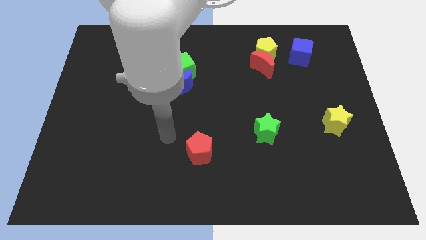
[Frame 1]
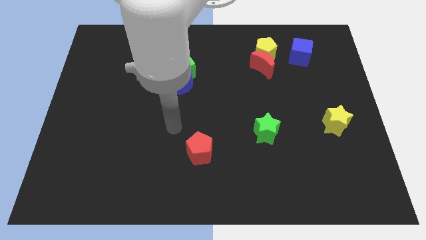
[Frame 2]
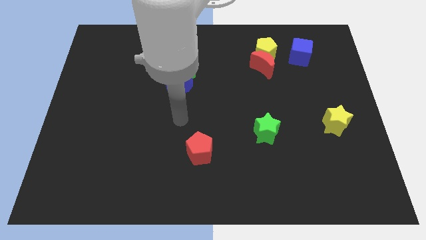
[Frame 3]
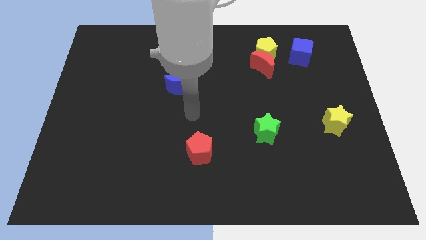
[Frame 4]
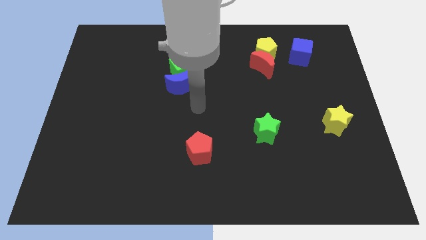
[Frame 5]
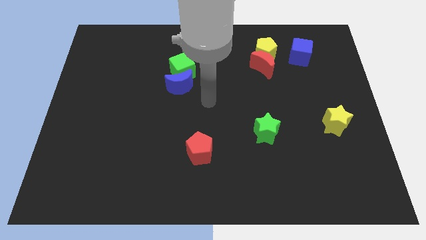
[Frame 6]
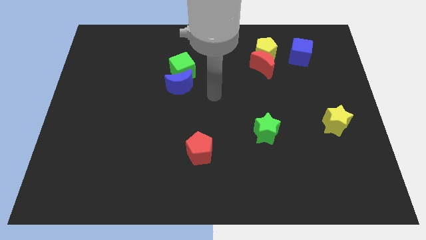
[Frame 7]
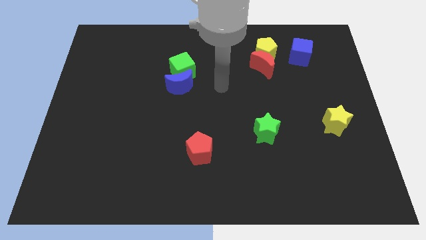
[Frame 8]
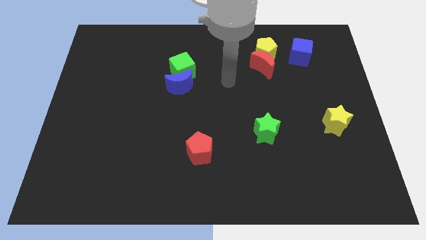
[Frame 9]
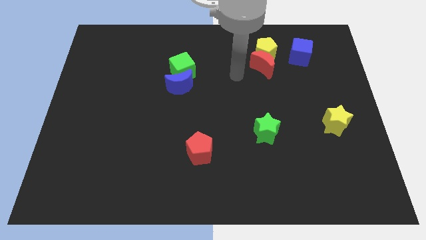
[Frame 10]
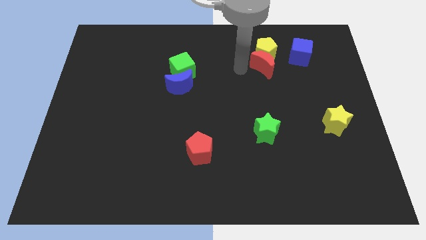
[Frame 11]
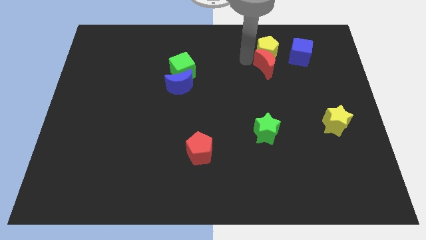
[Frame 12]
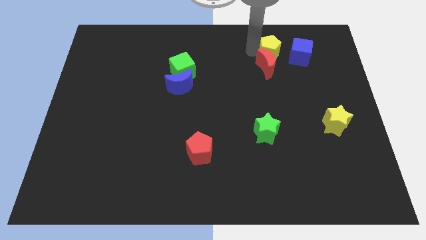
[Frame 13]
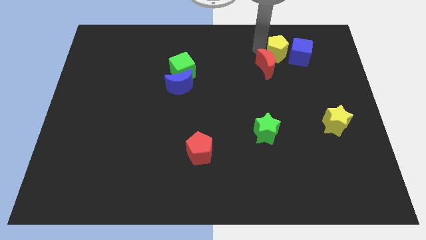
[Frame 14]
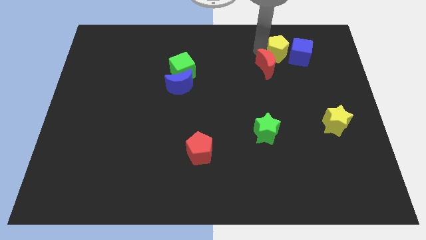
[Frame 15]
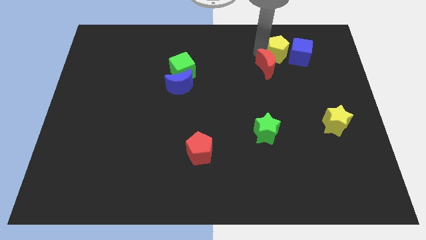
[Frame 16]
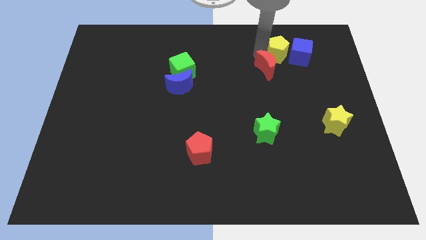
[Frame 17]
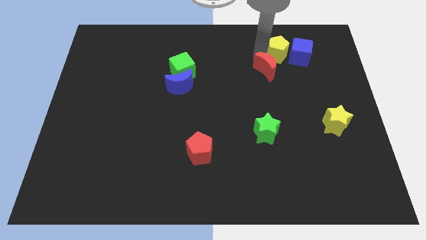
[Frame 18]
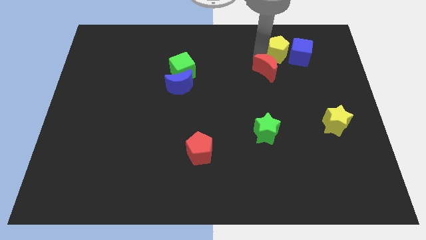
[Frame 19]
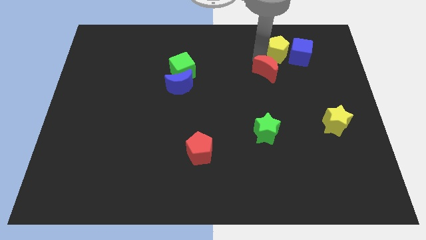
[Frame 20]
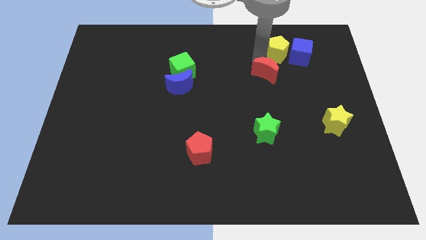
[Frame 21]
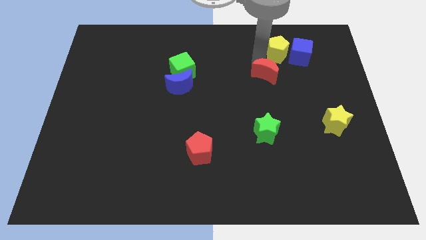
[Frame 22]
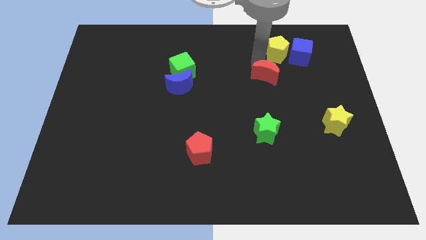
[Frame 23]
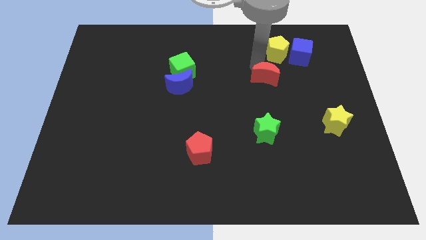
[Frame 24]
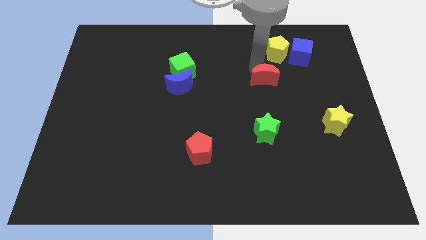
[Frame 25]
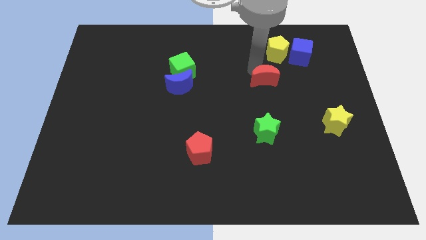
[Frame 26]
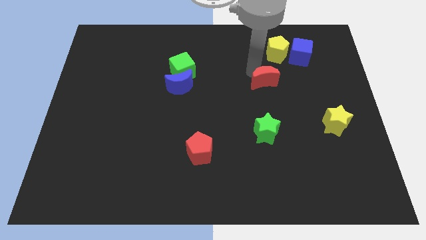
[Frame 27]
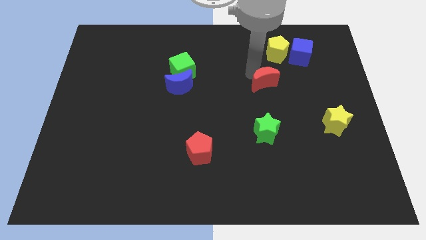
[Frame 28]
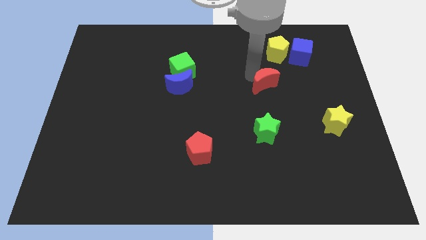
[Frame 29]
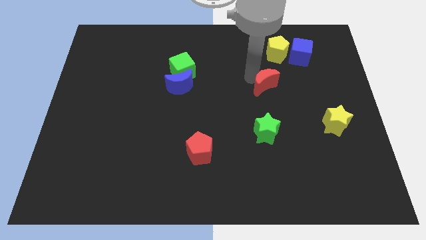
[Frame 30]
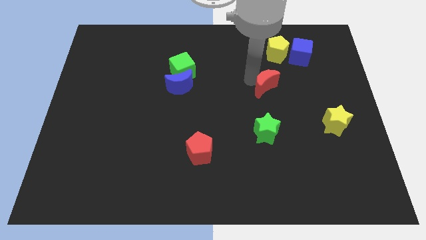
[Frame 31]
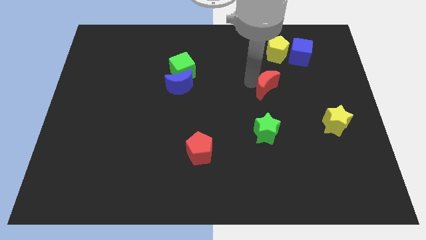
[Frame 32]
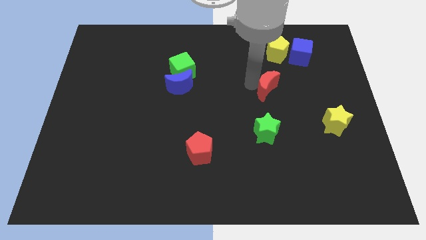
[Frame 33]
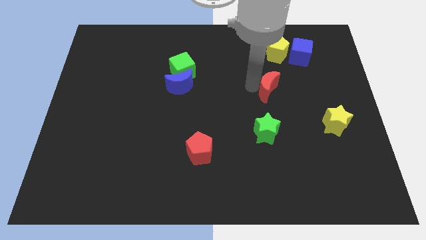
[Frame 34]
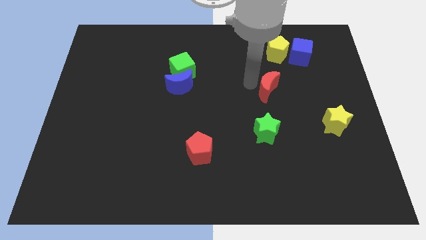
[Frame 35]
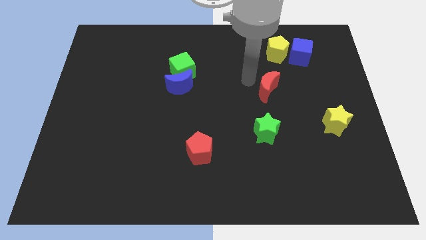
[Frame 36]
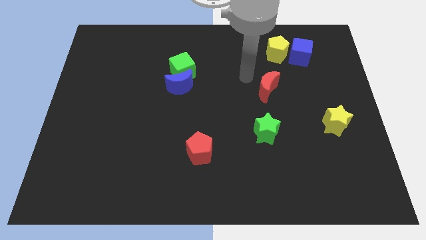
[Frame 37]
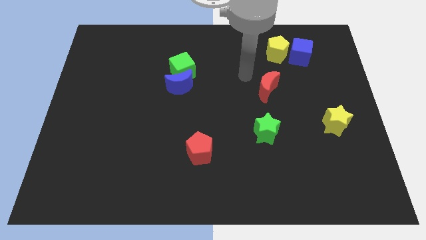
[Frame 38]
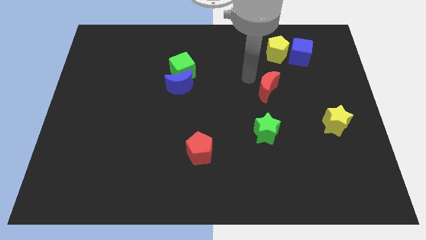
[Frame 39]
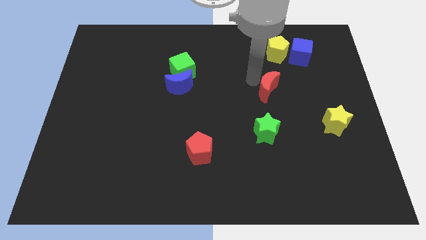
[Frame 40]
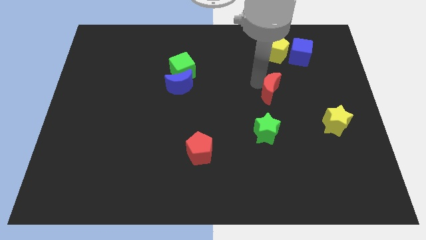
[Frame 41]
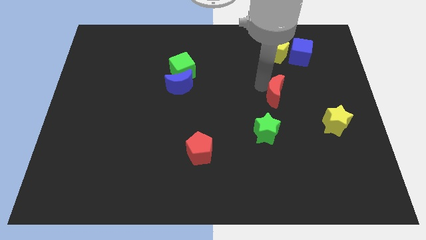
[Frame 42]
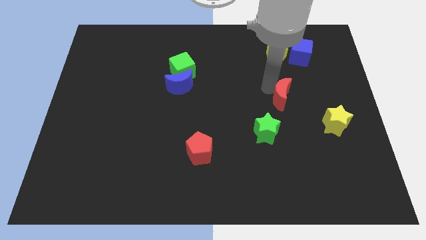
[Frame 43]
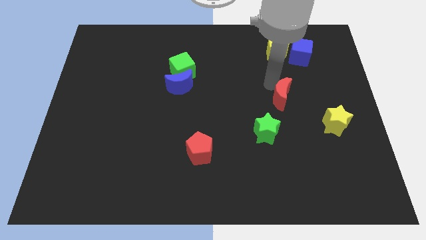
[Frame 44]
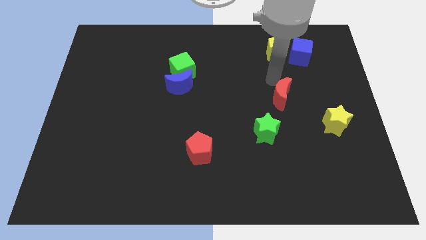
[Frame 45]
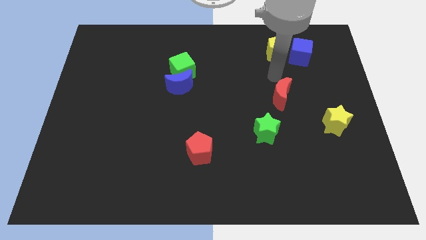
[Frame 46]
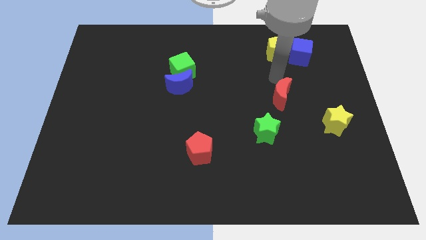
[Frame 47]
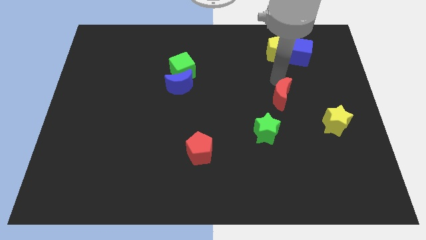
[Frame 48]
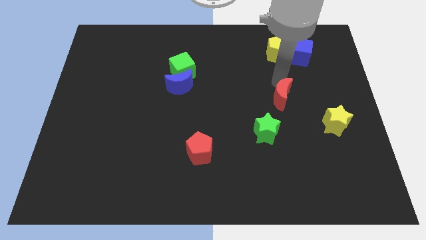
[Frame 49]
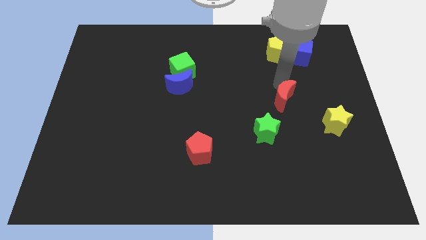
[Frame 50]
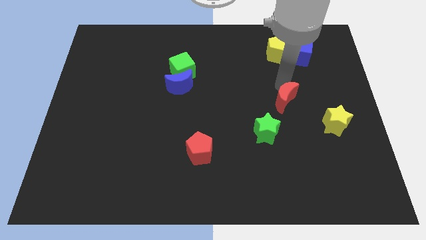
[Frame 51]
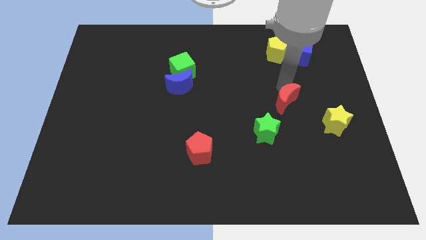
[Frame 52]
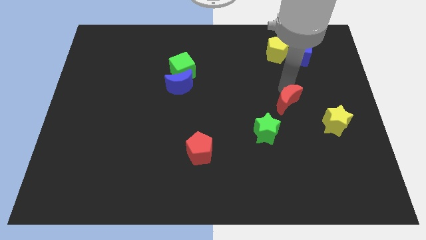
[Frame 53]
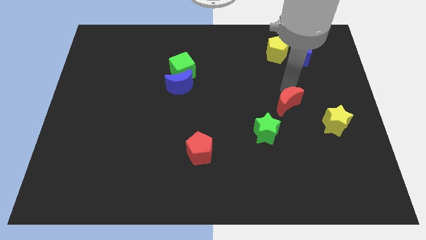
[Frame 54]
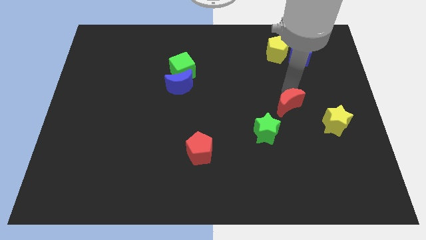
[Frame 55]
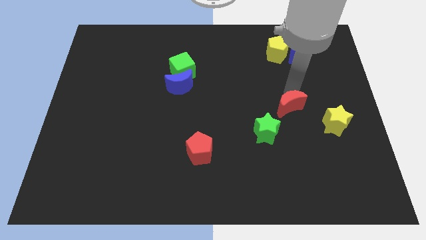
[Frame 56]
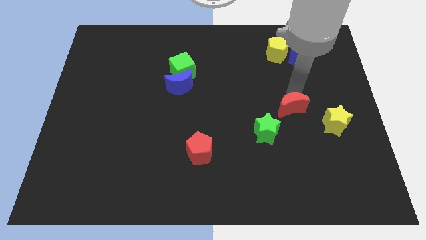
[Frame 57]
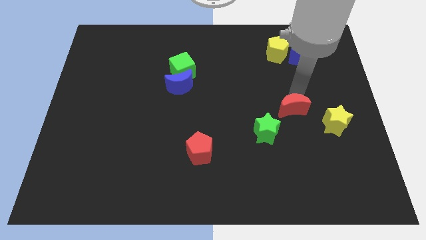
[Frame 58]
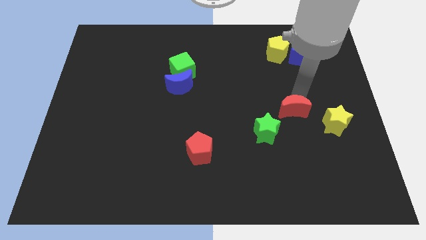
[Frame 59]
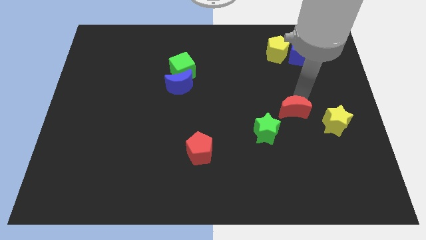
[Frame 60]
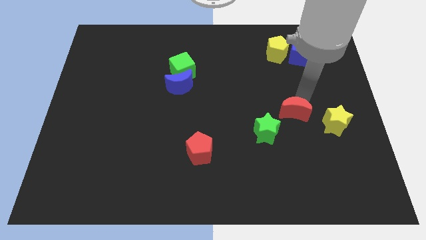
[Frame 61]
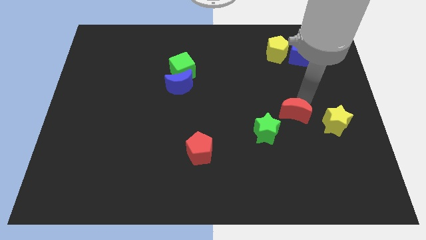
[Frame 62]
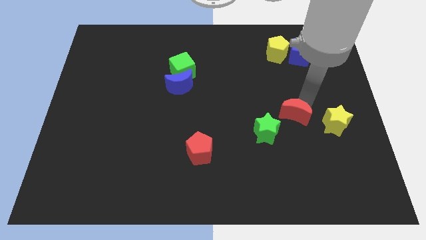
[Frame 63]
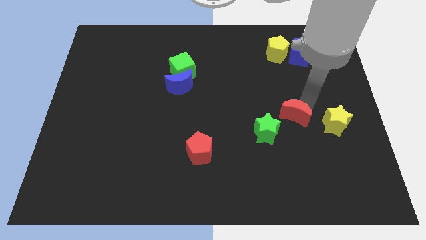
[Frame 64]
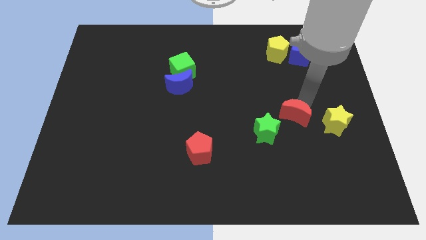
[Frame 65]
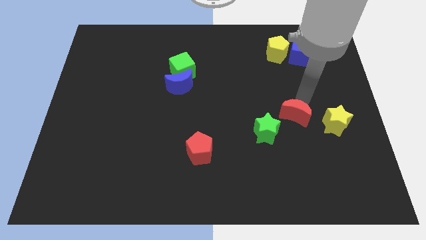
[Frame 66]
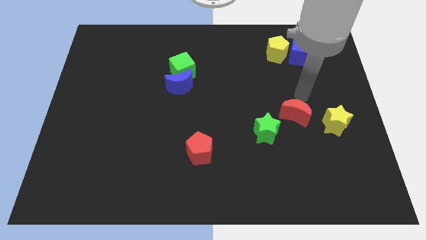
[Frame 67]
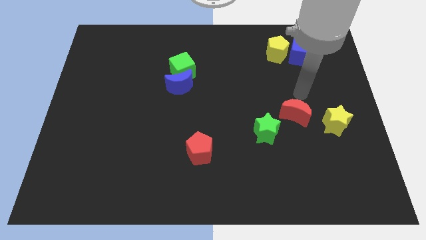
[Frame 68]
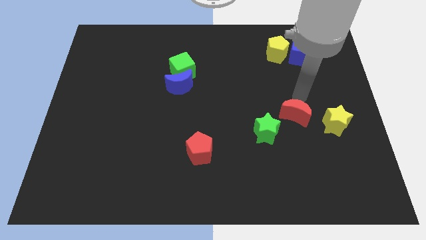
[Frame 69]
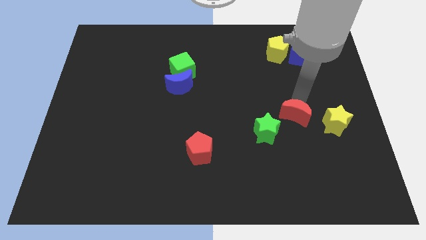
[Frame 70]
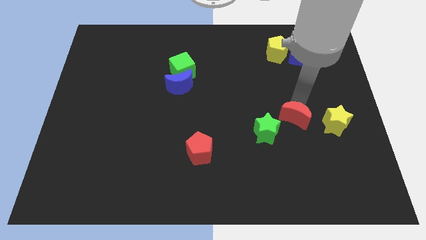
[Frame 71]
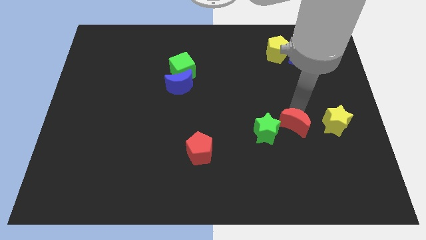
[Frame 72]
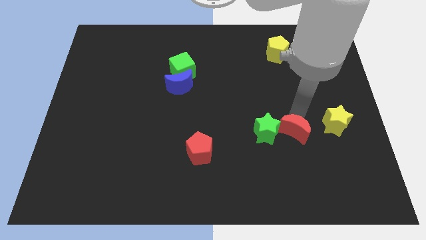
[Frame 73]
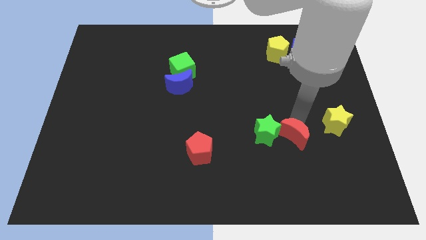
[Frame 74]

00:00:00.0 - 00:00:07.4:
push the red moon down

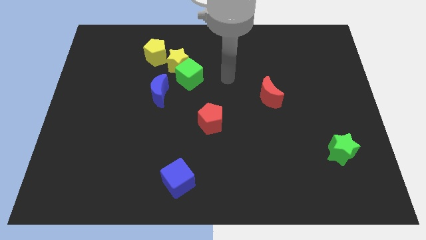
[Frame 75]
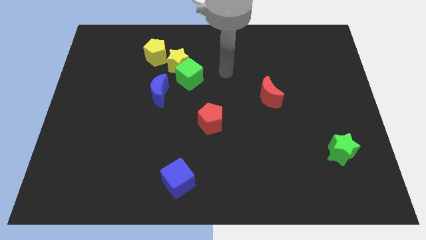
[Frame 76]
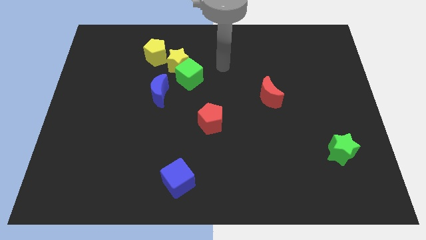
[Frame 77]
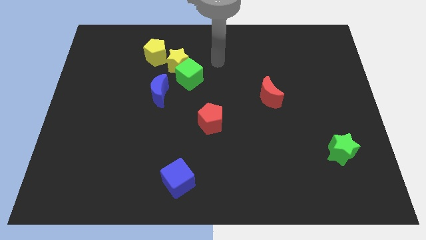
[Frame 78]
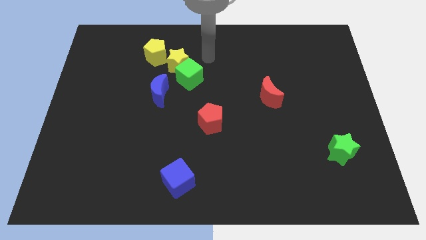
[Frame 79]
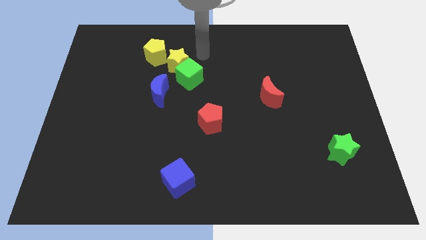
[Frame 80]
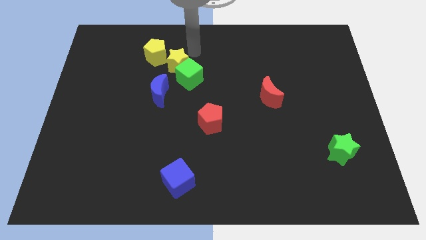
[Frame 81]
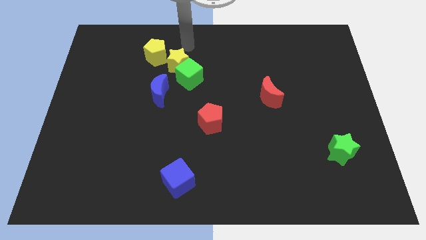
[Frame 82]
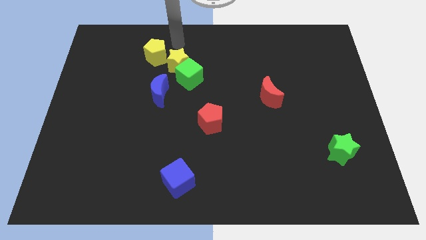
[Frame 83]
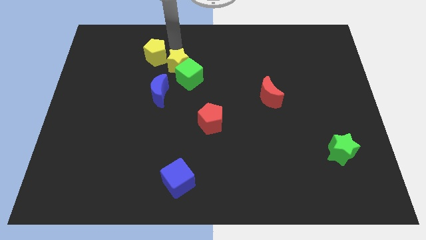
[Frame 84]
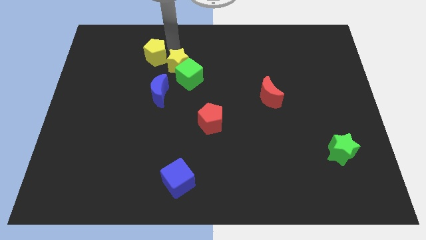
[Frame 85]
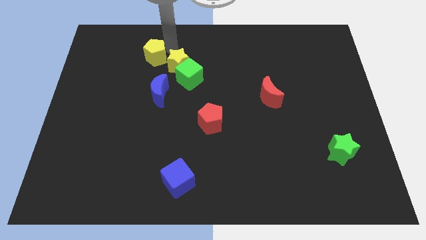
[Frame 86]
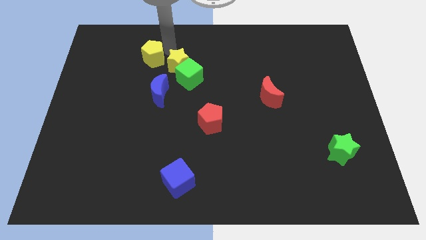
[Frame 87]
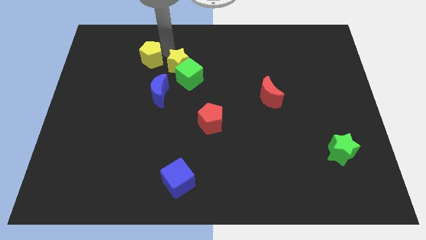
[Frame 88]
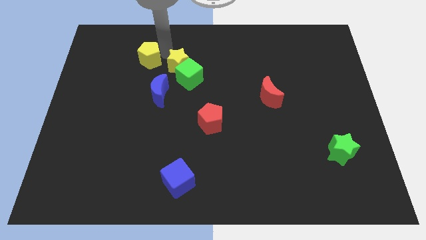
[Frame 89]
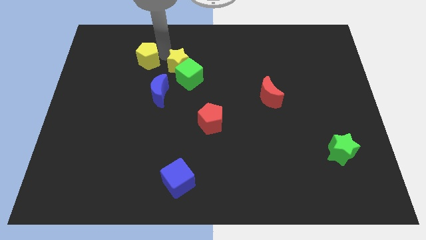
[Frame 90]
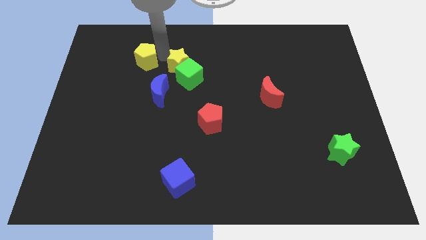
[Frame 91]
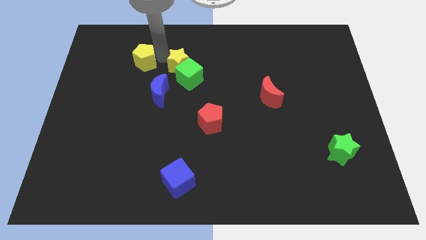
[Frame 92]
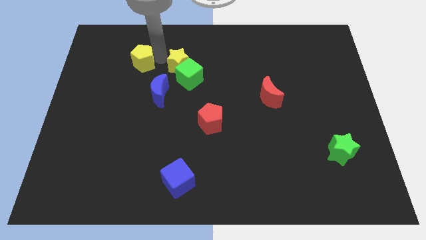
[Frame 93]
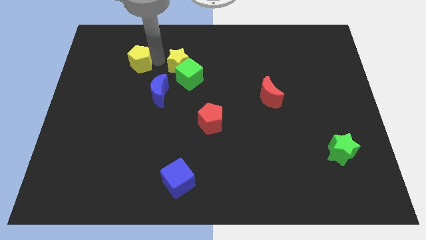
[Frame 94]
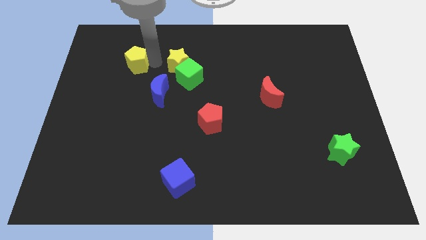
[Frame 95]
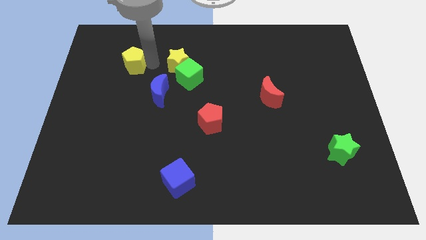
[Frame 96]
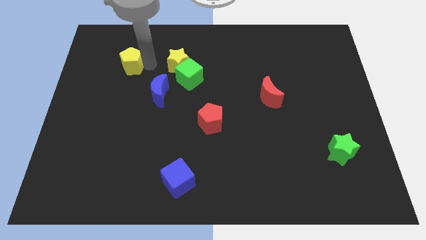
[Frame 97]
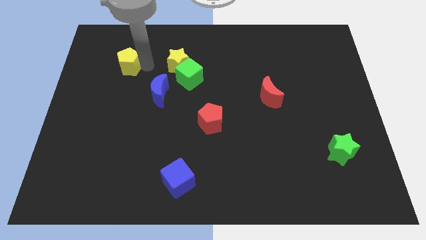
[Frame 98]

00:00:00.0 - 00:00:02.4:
slightly move the yellow pentagon down and to the left
